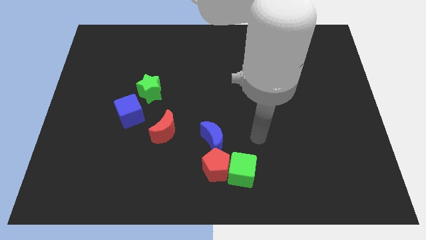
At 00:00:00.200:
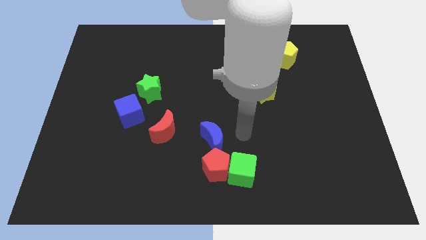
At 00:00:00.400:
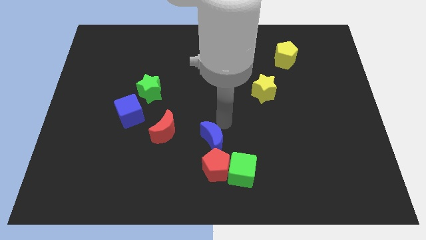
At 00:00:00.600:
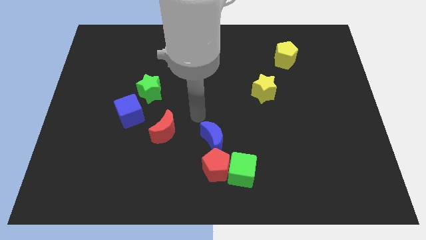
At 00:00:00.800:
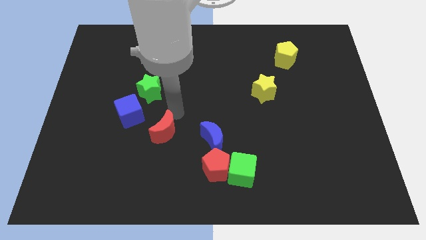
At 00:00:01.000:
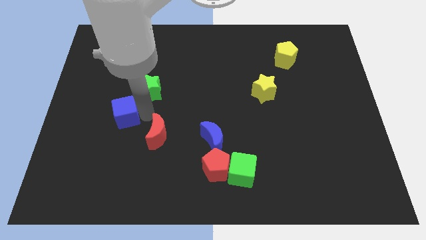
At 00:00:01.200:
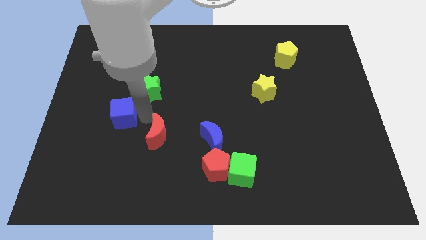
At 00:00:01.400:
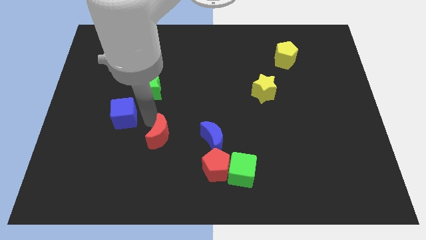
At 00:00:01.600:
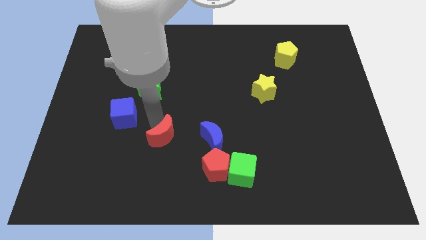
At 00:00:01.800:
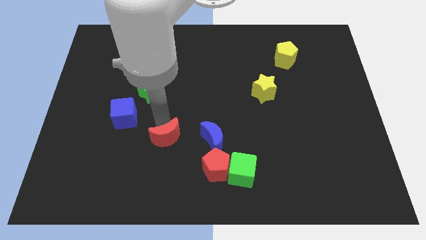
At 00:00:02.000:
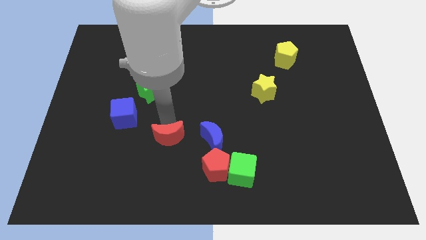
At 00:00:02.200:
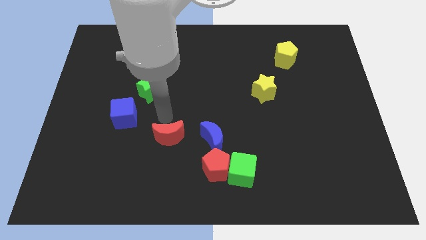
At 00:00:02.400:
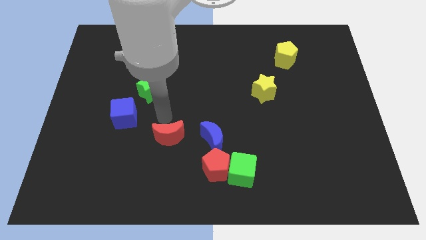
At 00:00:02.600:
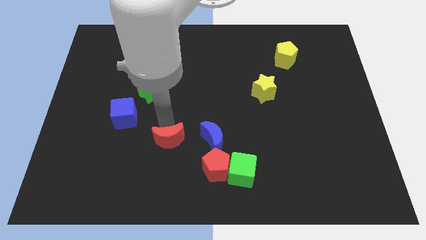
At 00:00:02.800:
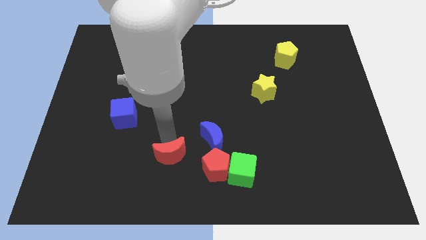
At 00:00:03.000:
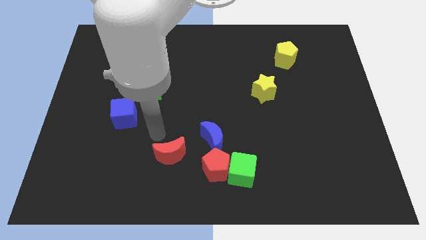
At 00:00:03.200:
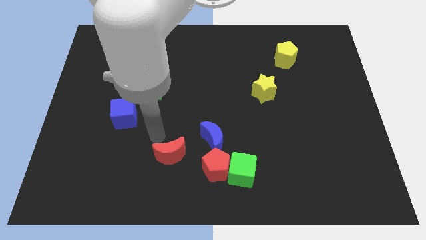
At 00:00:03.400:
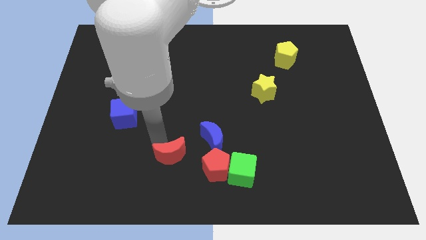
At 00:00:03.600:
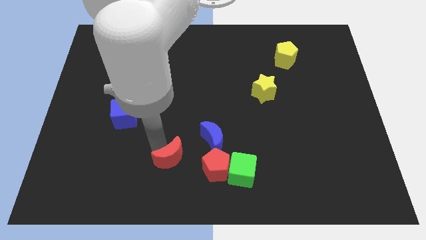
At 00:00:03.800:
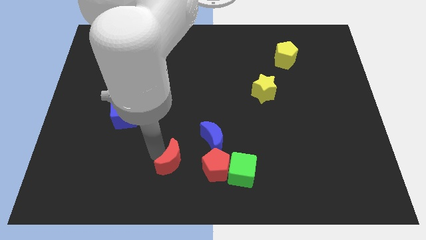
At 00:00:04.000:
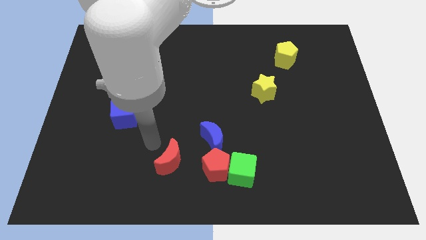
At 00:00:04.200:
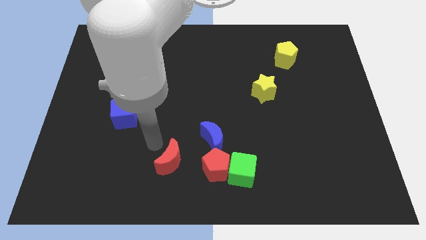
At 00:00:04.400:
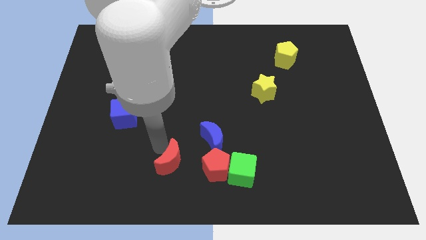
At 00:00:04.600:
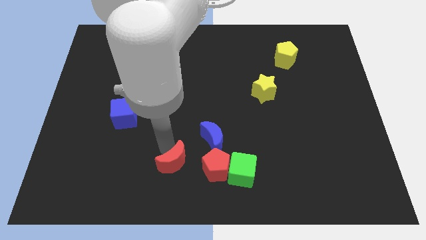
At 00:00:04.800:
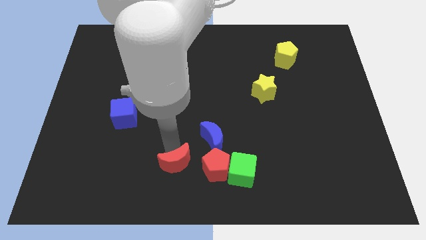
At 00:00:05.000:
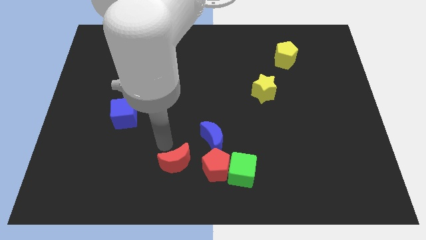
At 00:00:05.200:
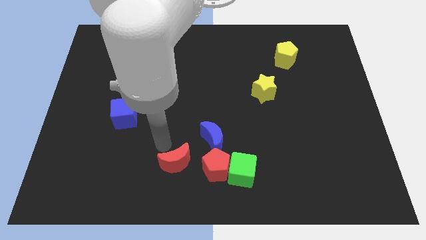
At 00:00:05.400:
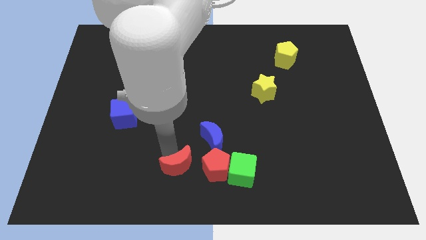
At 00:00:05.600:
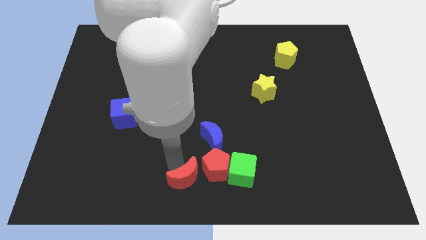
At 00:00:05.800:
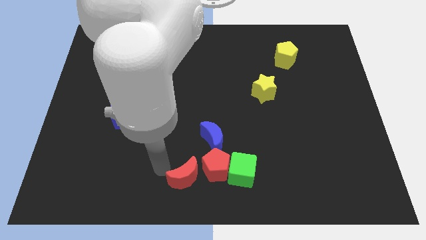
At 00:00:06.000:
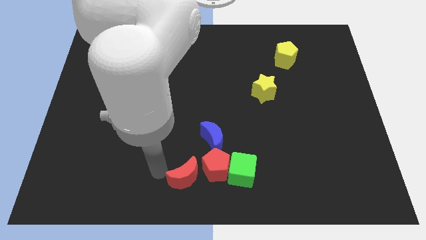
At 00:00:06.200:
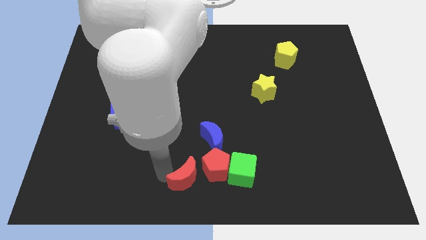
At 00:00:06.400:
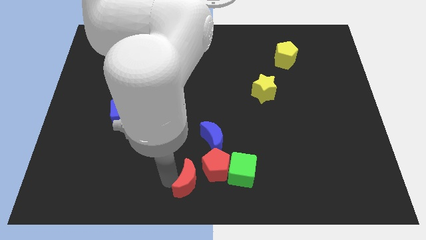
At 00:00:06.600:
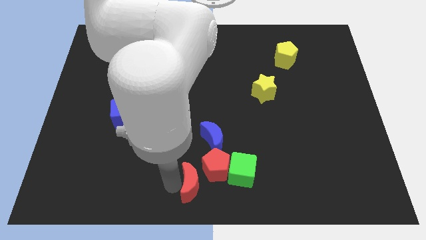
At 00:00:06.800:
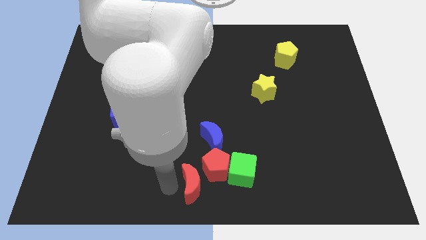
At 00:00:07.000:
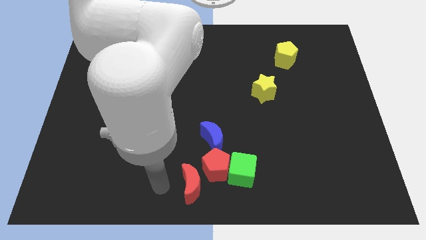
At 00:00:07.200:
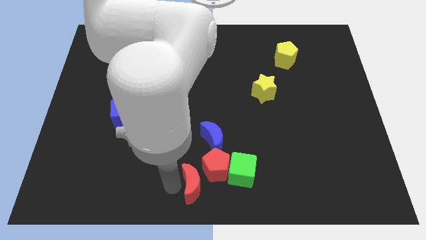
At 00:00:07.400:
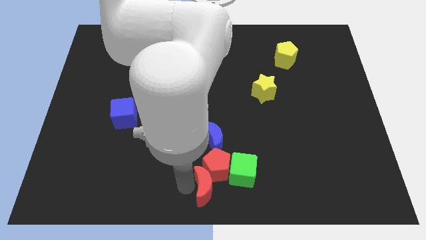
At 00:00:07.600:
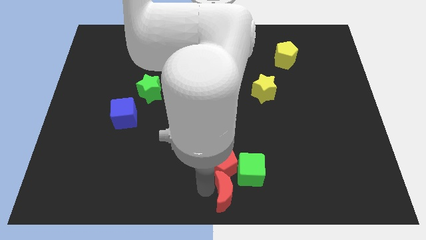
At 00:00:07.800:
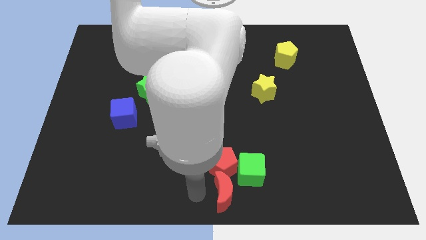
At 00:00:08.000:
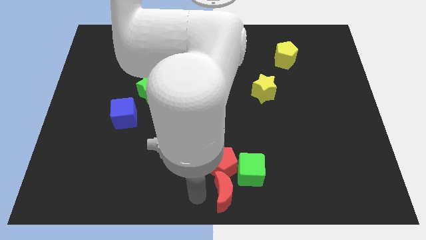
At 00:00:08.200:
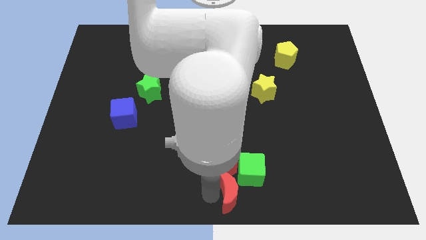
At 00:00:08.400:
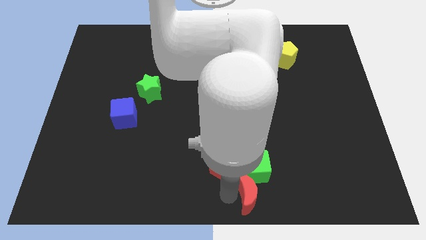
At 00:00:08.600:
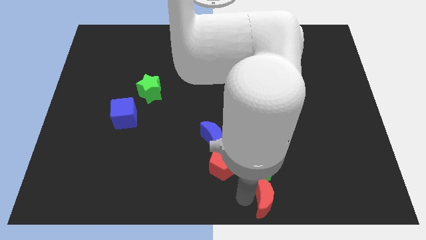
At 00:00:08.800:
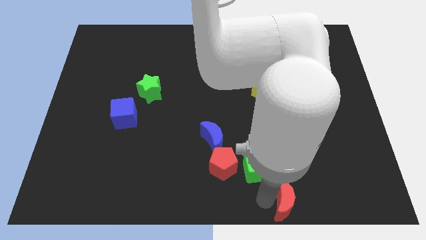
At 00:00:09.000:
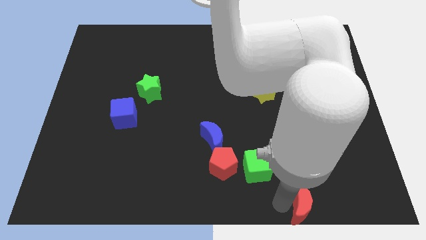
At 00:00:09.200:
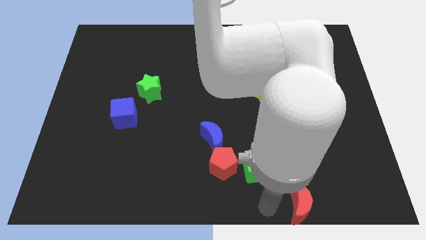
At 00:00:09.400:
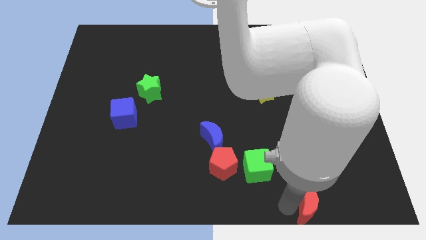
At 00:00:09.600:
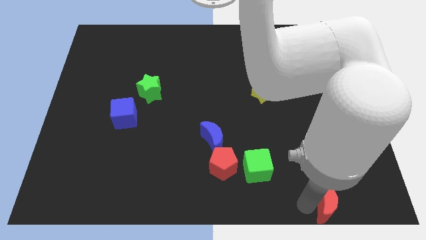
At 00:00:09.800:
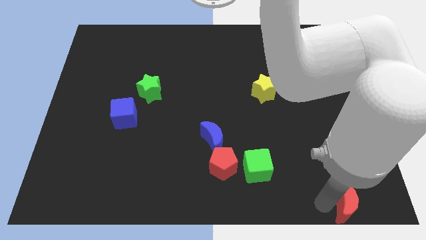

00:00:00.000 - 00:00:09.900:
move the red moon to the bottom right of the board

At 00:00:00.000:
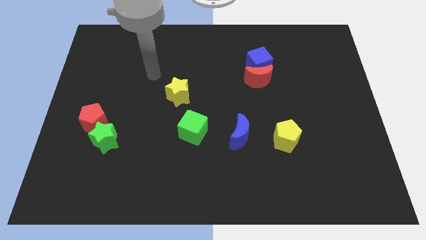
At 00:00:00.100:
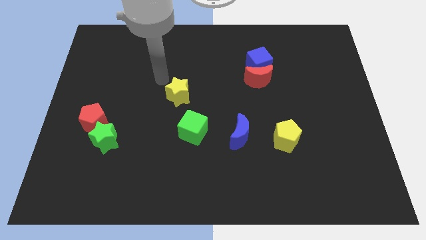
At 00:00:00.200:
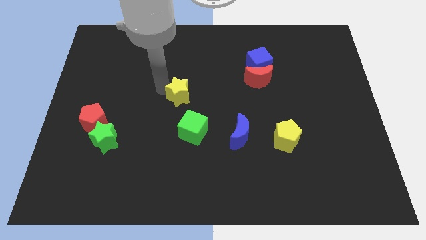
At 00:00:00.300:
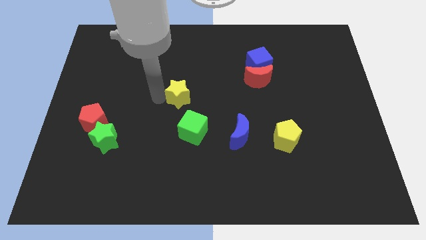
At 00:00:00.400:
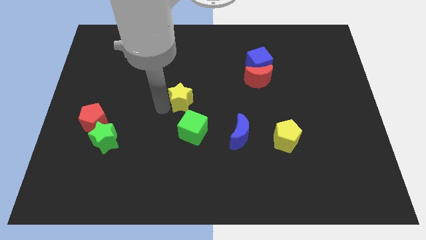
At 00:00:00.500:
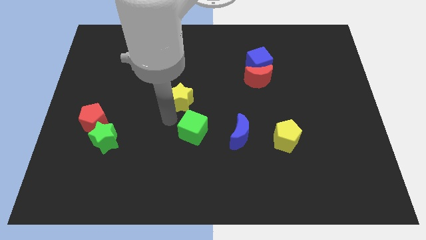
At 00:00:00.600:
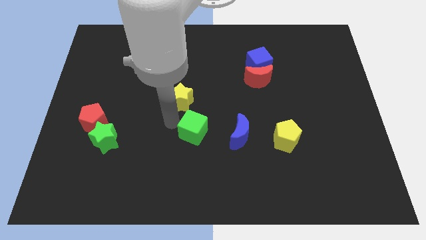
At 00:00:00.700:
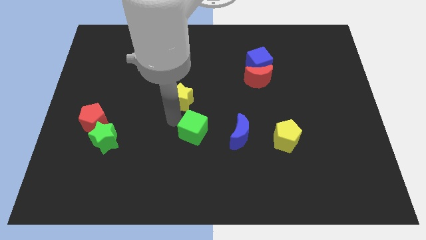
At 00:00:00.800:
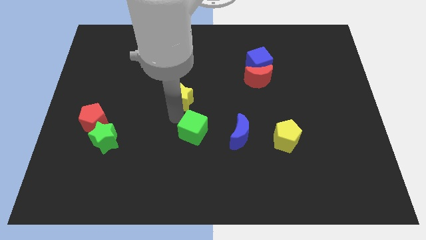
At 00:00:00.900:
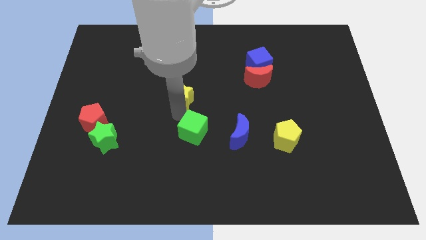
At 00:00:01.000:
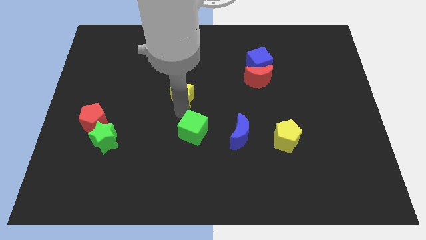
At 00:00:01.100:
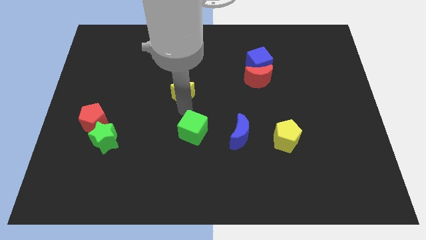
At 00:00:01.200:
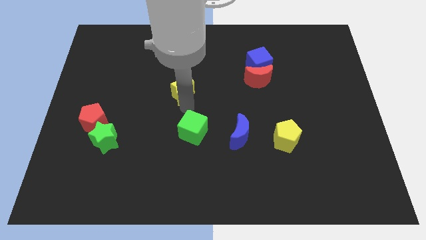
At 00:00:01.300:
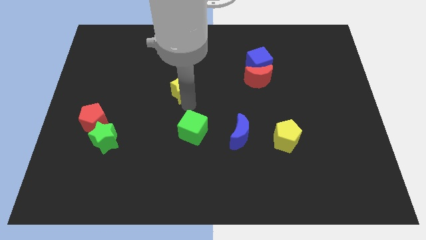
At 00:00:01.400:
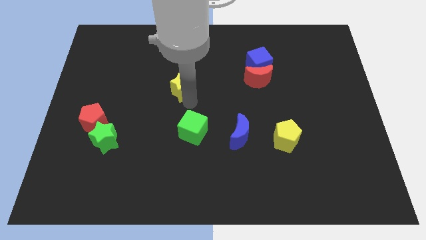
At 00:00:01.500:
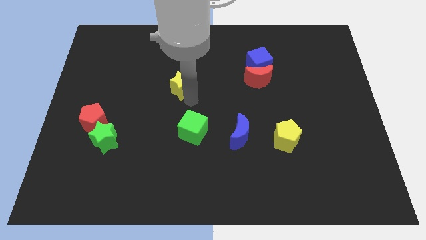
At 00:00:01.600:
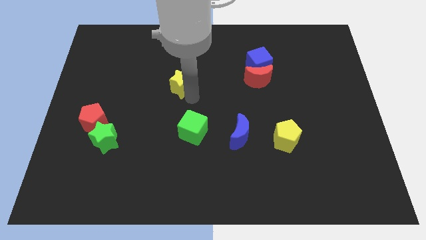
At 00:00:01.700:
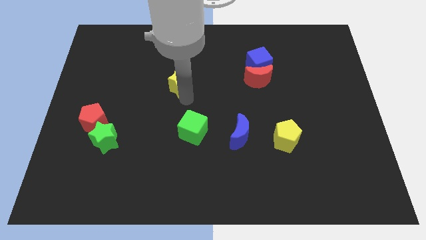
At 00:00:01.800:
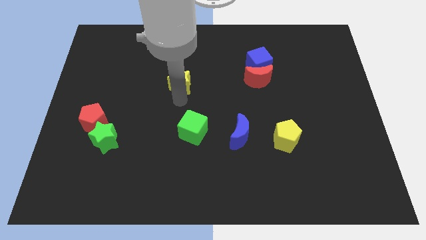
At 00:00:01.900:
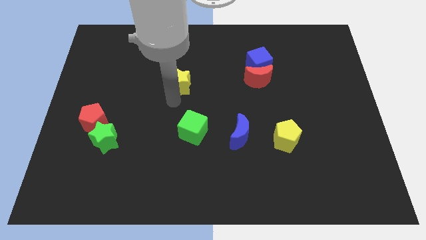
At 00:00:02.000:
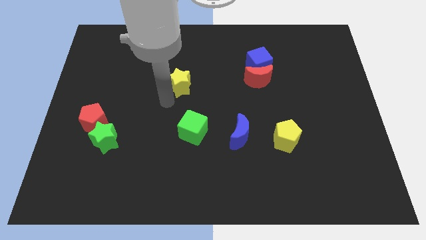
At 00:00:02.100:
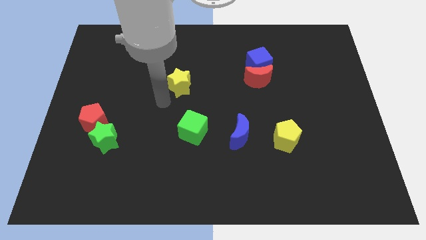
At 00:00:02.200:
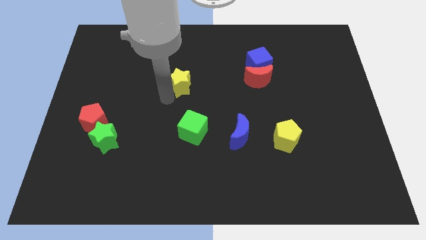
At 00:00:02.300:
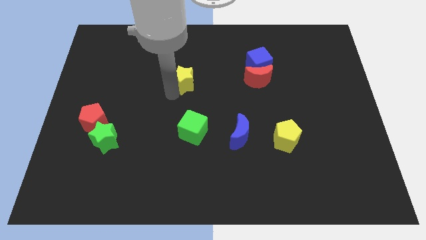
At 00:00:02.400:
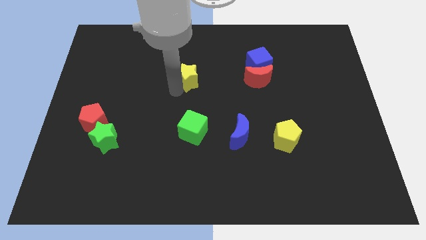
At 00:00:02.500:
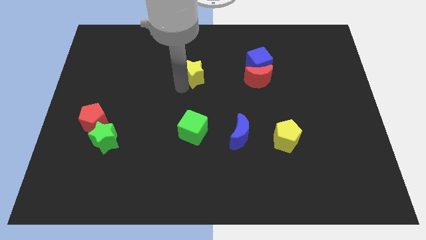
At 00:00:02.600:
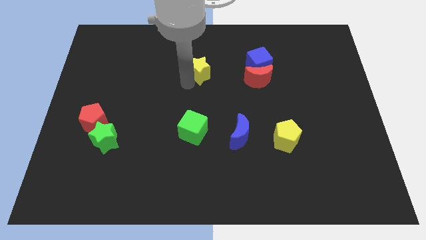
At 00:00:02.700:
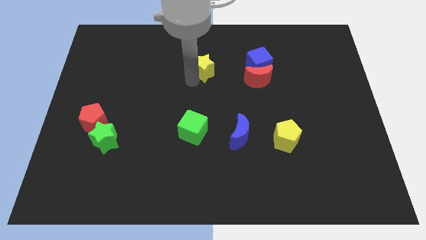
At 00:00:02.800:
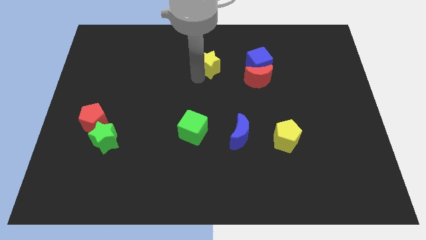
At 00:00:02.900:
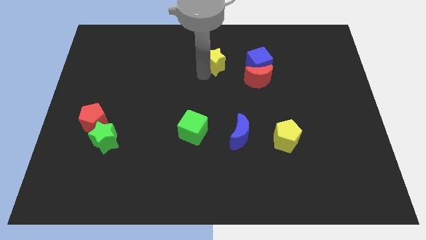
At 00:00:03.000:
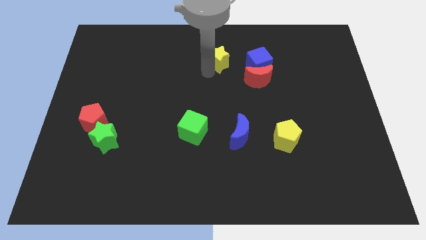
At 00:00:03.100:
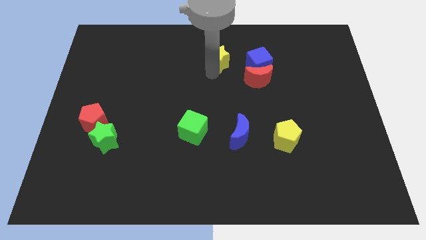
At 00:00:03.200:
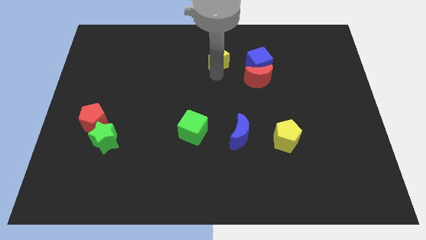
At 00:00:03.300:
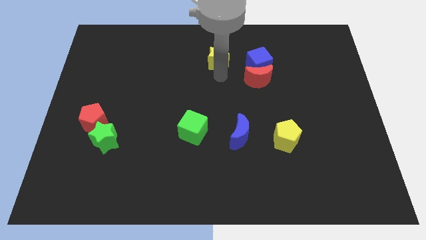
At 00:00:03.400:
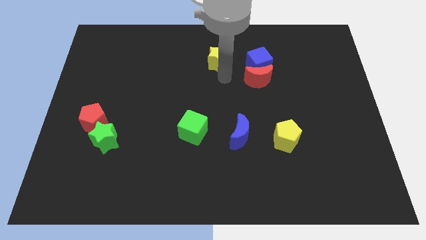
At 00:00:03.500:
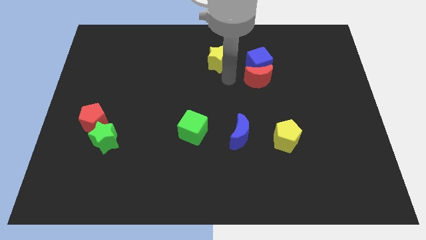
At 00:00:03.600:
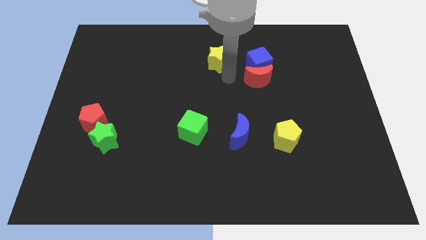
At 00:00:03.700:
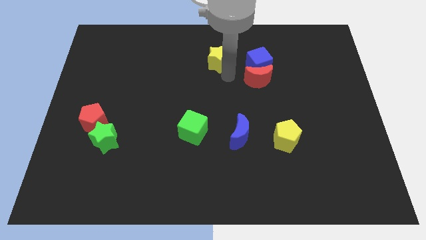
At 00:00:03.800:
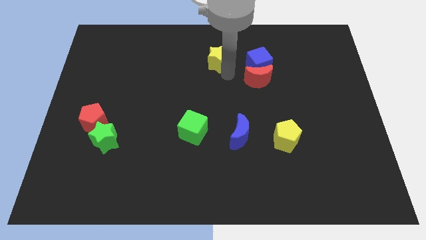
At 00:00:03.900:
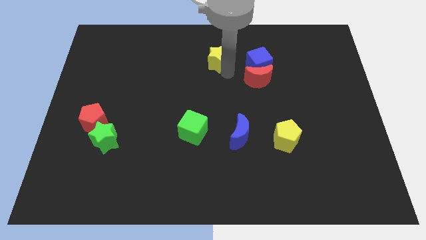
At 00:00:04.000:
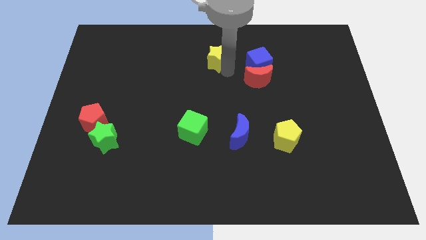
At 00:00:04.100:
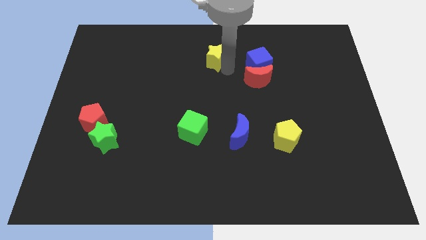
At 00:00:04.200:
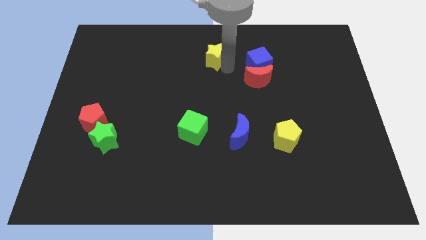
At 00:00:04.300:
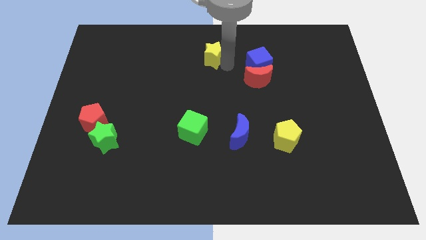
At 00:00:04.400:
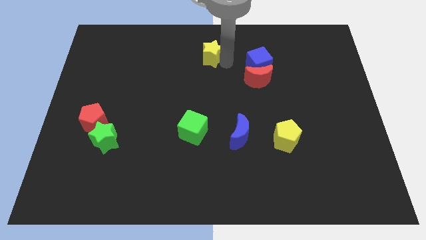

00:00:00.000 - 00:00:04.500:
move the yellow star to the top
